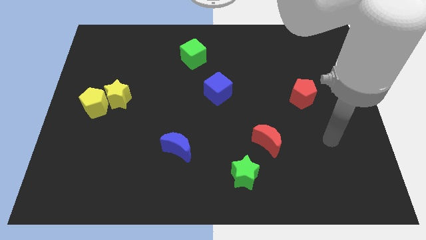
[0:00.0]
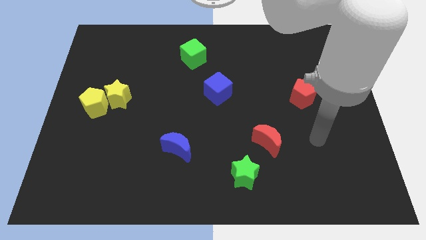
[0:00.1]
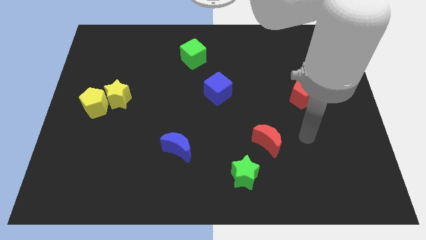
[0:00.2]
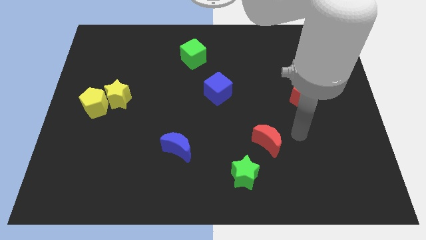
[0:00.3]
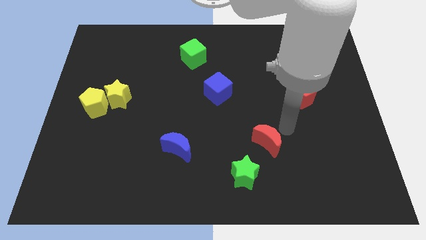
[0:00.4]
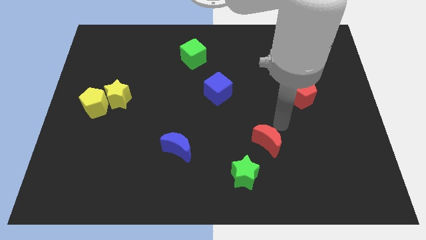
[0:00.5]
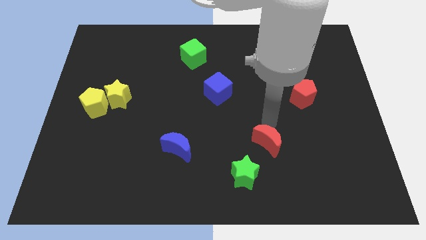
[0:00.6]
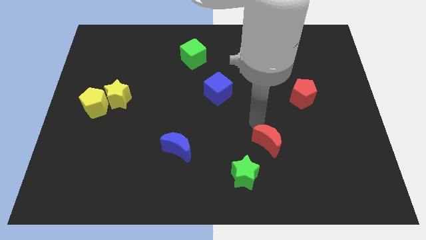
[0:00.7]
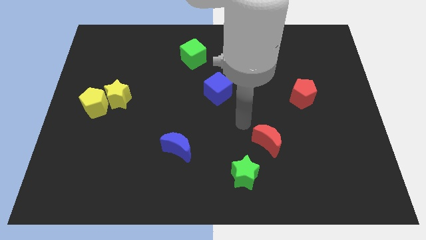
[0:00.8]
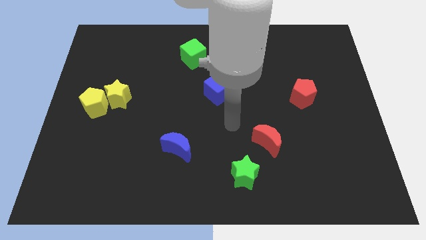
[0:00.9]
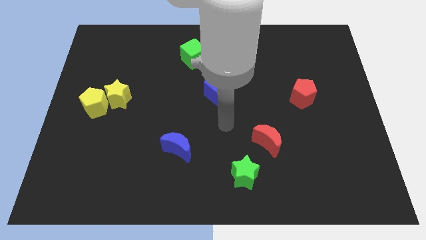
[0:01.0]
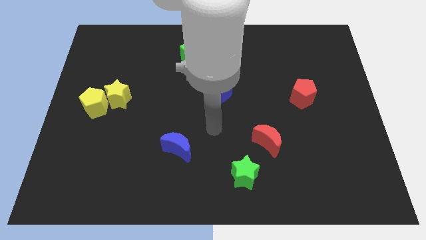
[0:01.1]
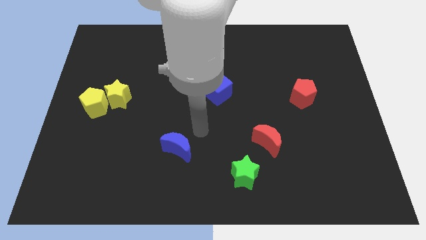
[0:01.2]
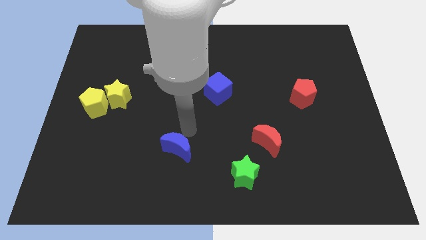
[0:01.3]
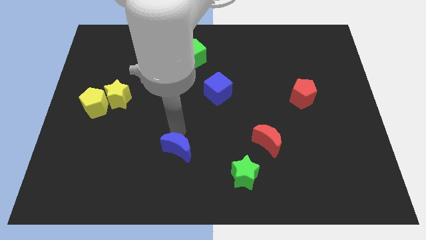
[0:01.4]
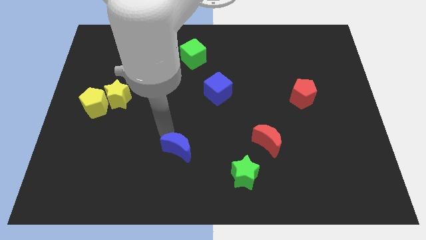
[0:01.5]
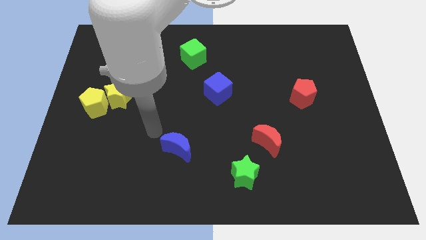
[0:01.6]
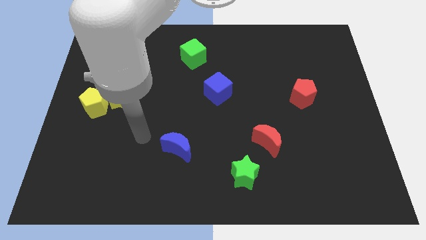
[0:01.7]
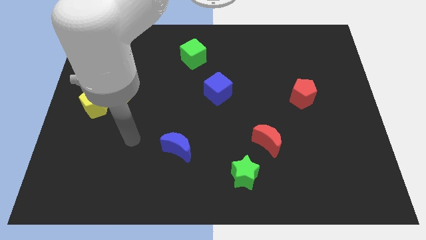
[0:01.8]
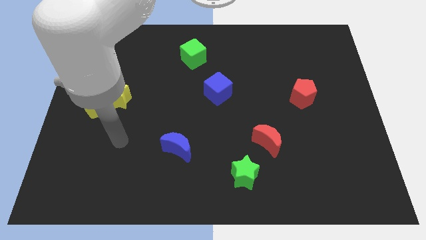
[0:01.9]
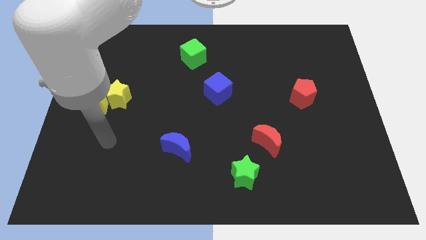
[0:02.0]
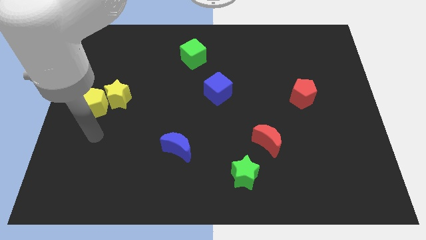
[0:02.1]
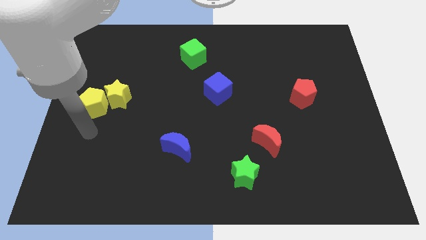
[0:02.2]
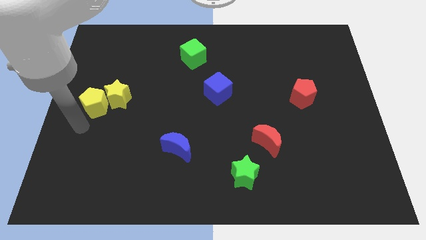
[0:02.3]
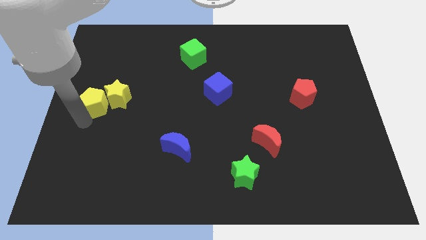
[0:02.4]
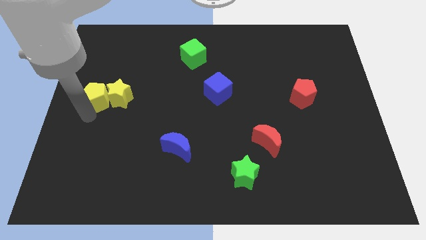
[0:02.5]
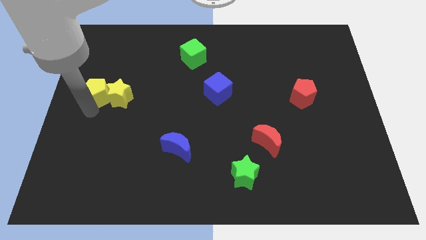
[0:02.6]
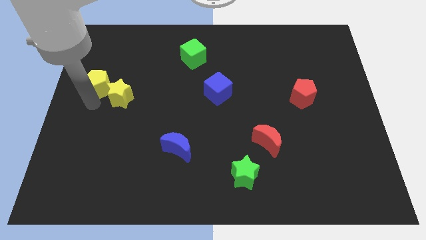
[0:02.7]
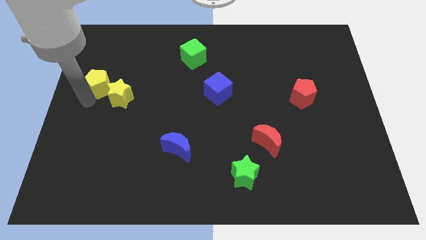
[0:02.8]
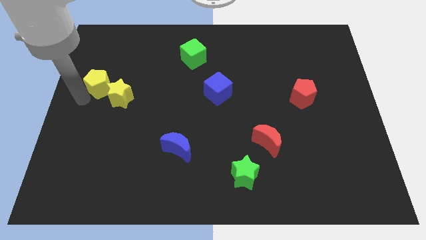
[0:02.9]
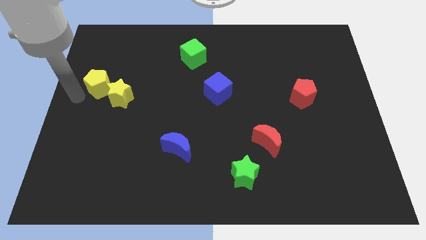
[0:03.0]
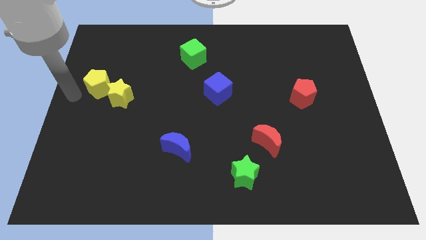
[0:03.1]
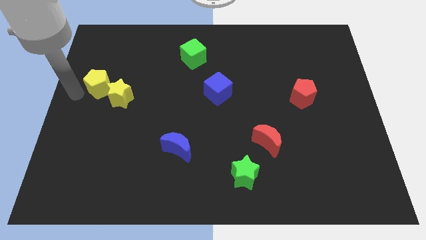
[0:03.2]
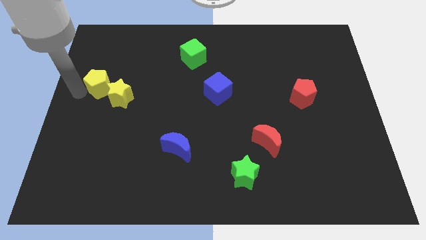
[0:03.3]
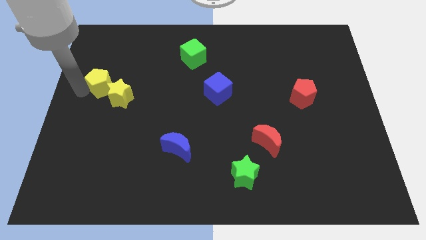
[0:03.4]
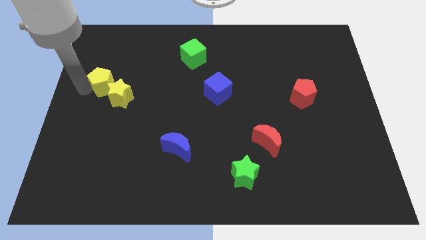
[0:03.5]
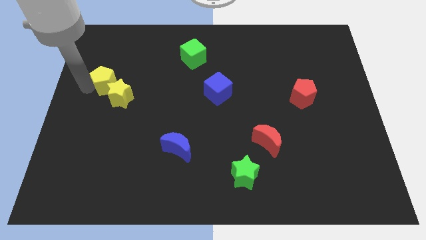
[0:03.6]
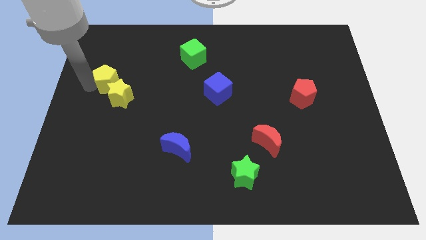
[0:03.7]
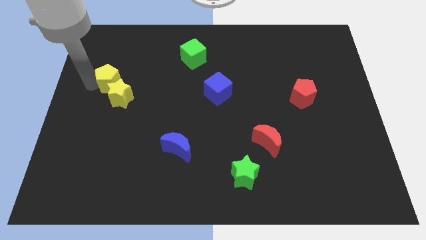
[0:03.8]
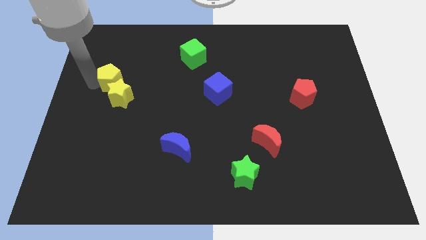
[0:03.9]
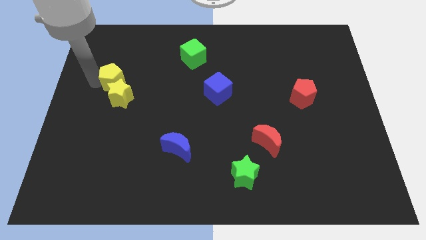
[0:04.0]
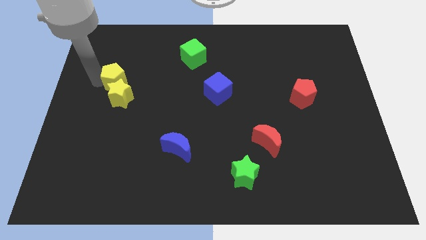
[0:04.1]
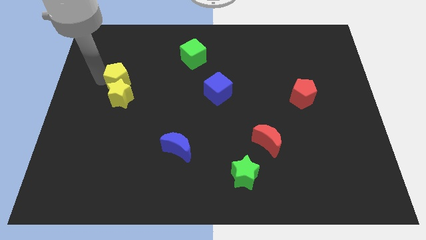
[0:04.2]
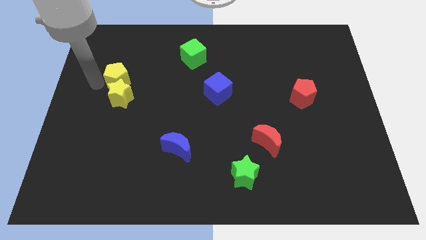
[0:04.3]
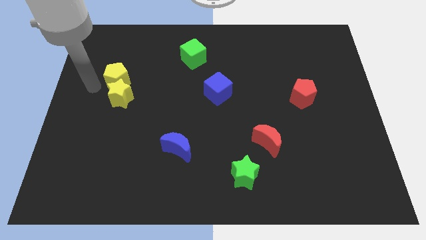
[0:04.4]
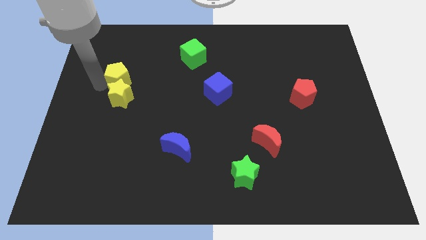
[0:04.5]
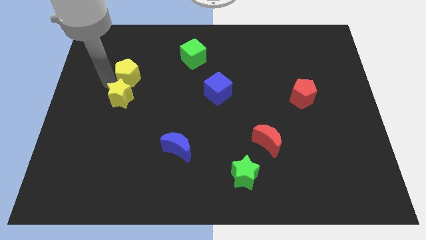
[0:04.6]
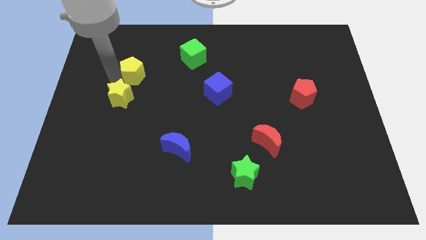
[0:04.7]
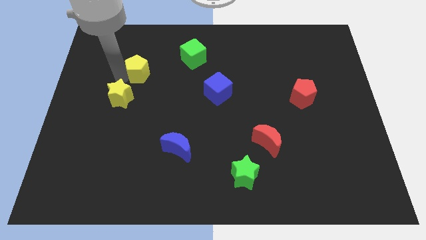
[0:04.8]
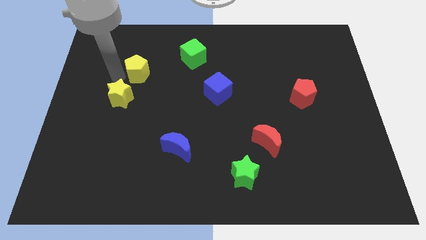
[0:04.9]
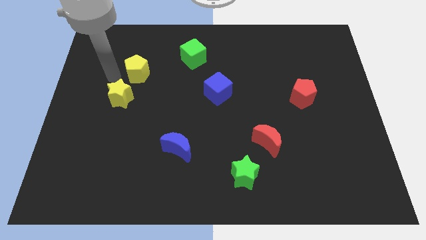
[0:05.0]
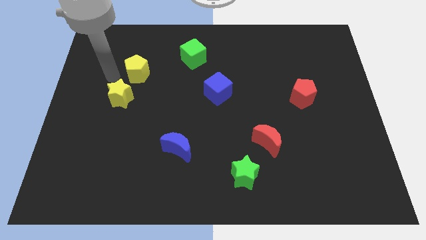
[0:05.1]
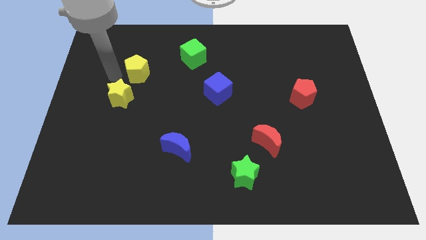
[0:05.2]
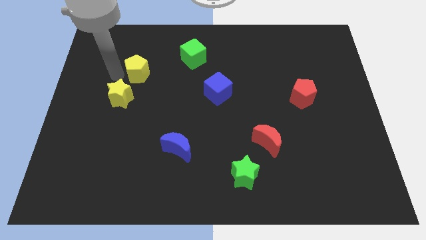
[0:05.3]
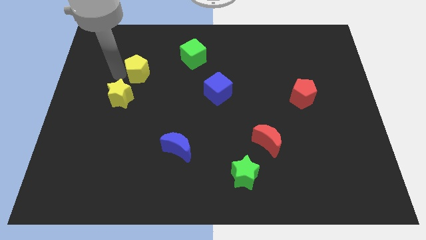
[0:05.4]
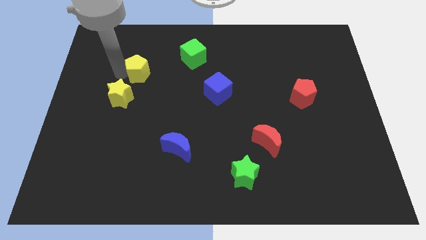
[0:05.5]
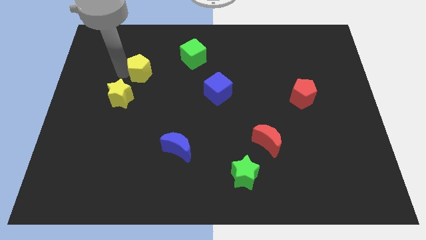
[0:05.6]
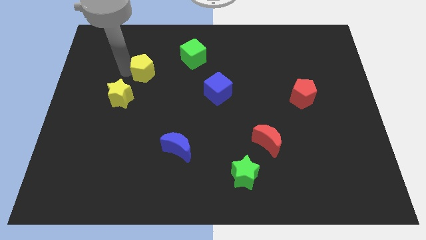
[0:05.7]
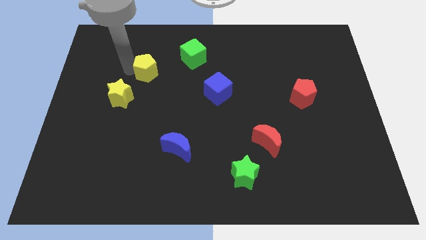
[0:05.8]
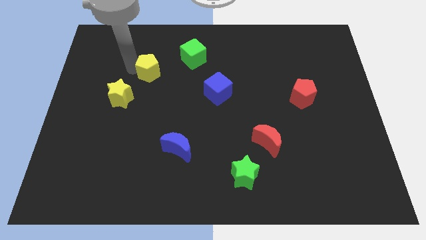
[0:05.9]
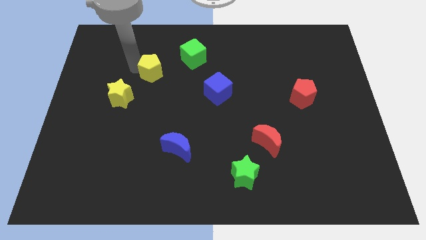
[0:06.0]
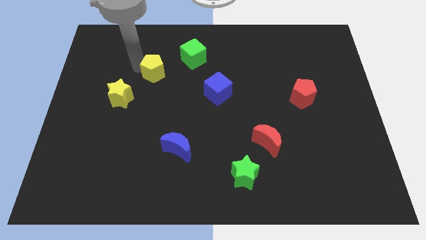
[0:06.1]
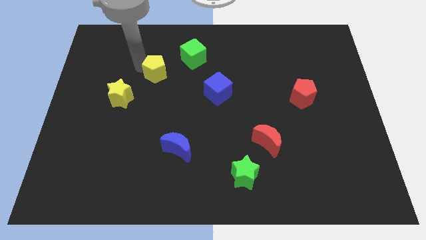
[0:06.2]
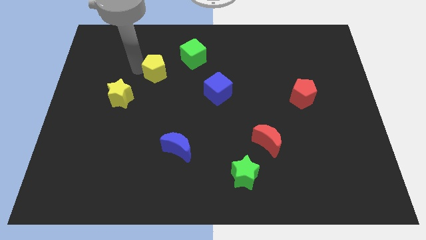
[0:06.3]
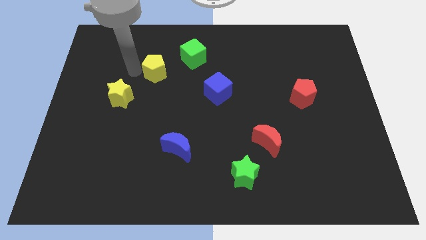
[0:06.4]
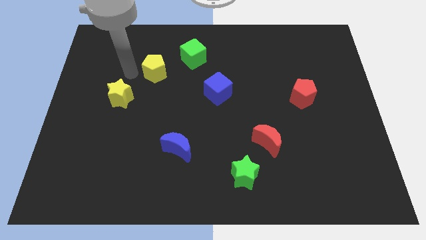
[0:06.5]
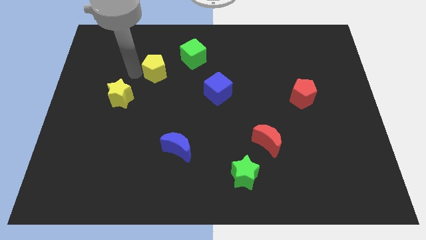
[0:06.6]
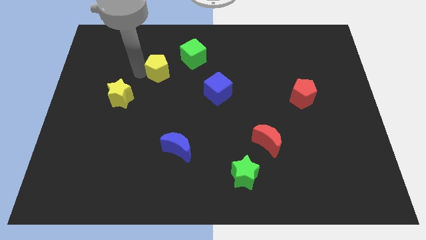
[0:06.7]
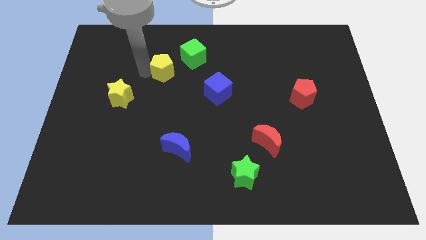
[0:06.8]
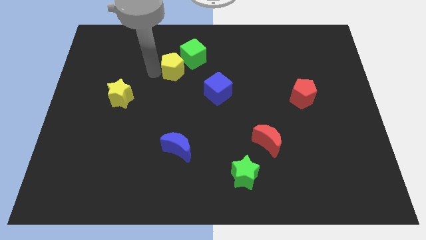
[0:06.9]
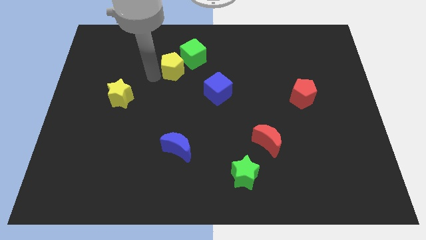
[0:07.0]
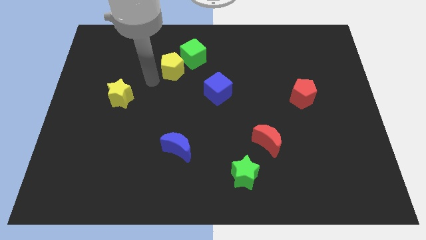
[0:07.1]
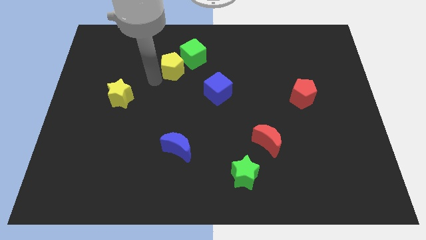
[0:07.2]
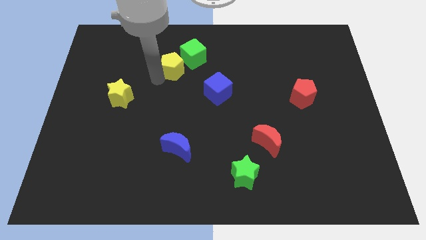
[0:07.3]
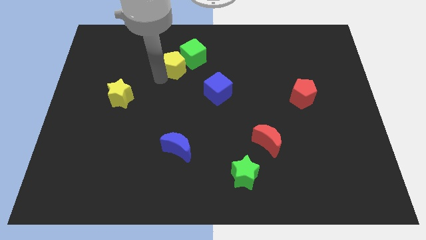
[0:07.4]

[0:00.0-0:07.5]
put the yellow pentagon towards the green cube
